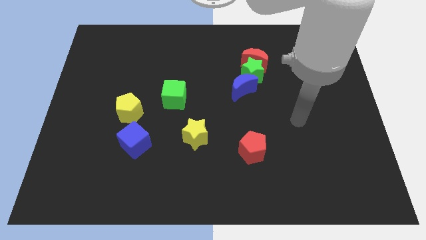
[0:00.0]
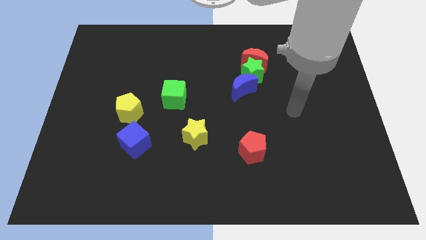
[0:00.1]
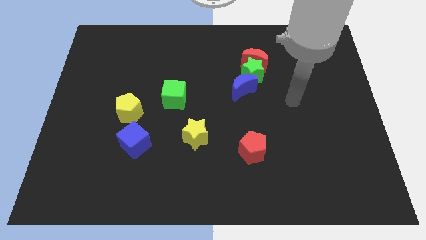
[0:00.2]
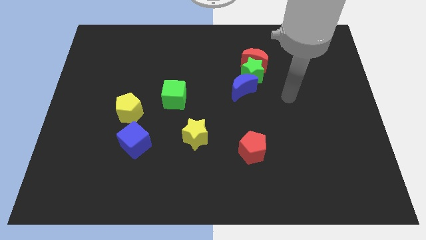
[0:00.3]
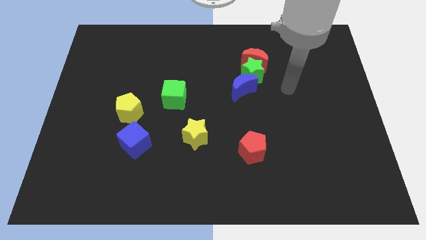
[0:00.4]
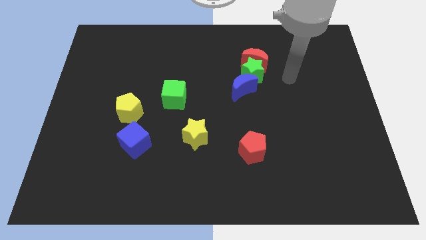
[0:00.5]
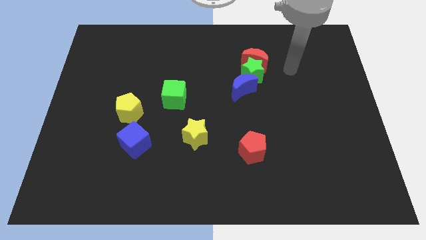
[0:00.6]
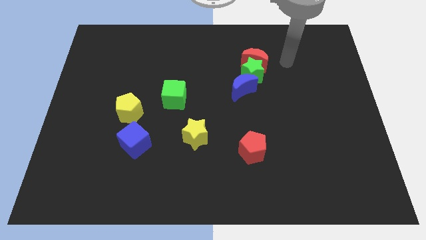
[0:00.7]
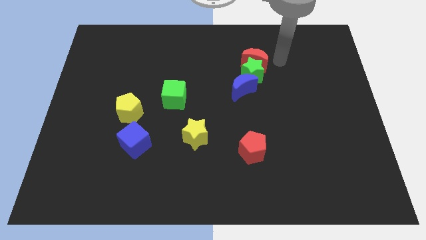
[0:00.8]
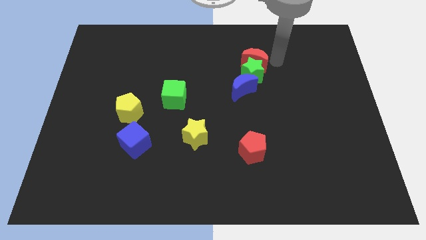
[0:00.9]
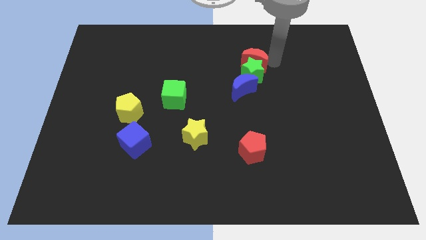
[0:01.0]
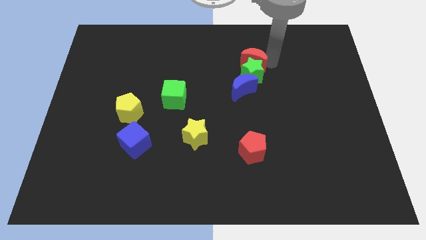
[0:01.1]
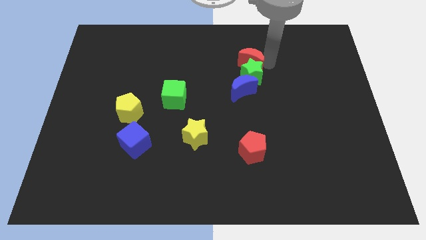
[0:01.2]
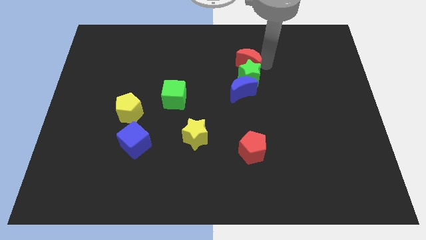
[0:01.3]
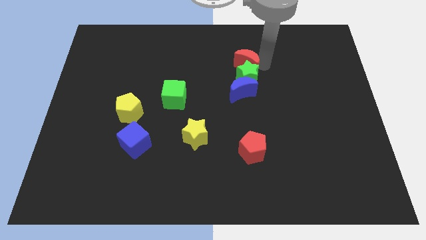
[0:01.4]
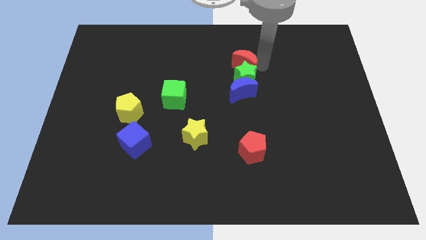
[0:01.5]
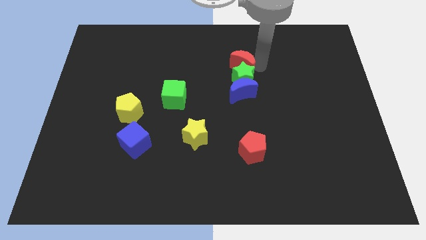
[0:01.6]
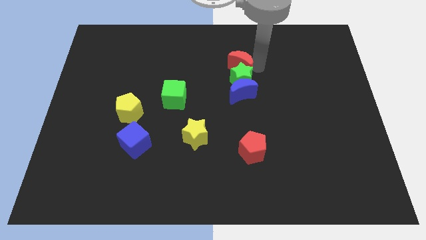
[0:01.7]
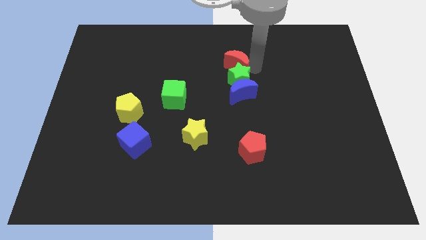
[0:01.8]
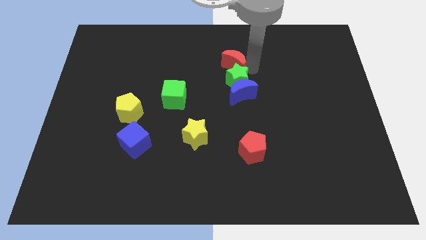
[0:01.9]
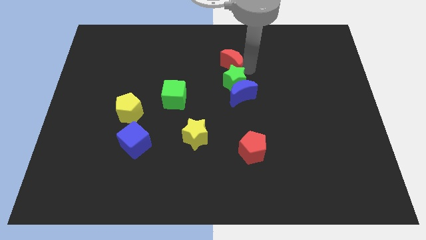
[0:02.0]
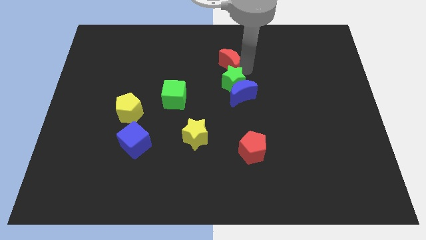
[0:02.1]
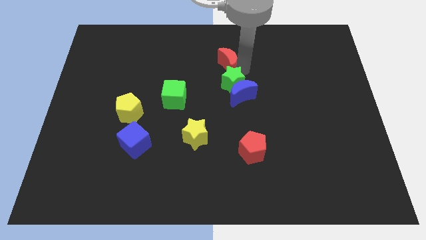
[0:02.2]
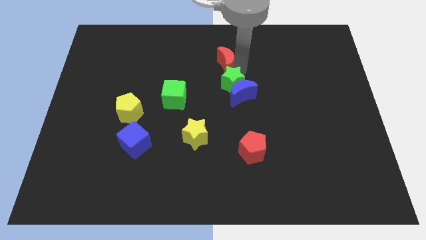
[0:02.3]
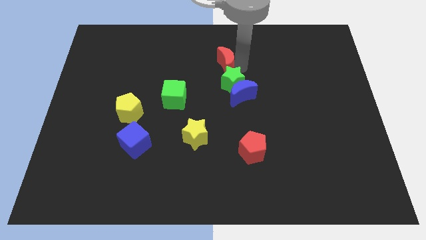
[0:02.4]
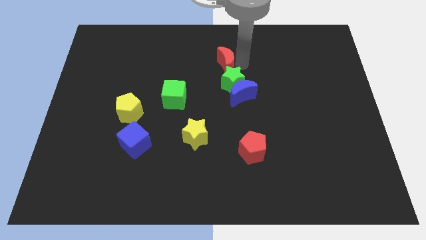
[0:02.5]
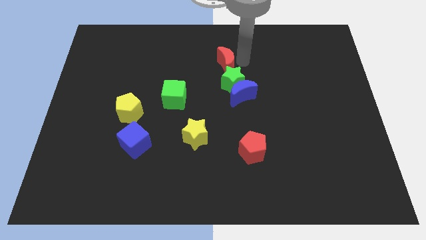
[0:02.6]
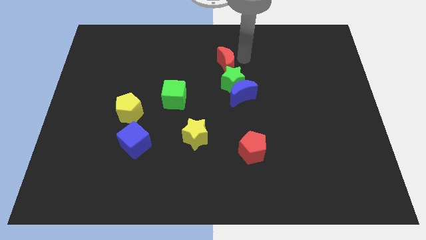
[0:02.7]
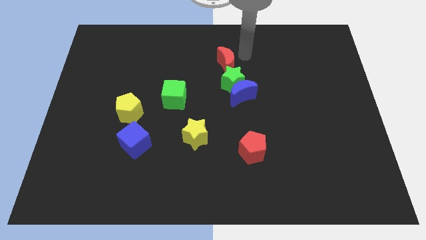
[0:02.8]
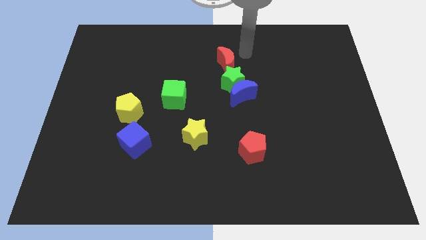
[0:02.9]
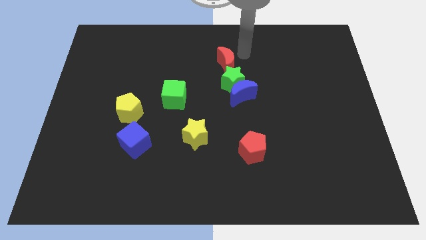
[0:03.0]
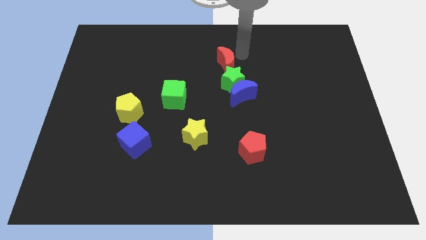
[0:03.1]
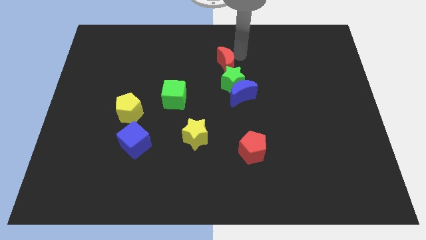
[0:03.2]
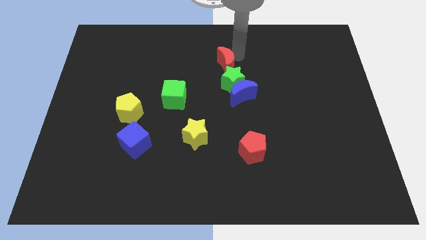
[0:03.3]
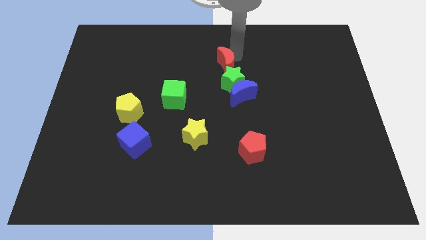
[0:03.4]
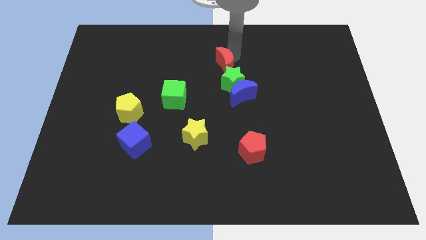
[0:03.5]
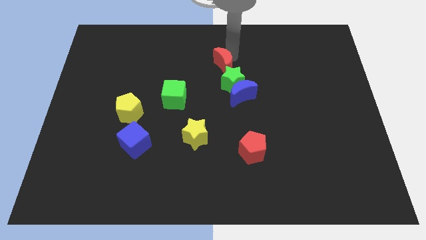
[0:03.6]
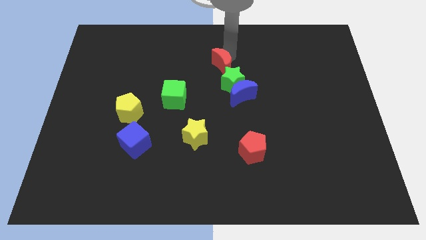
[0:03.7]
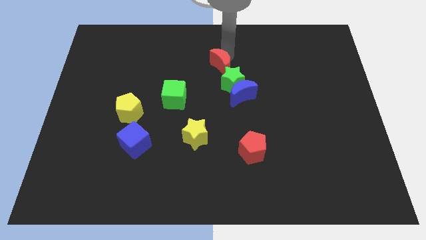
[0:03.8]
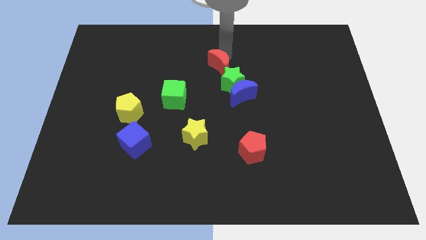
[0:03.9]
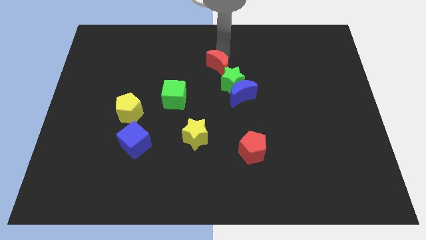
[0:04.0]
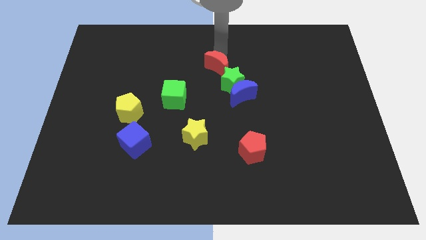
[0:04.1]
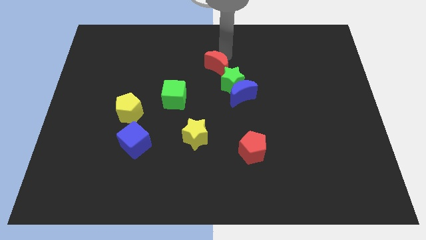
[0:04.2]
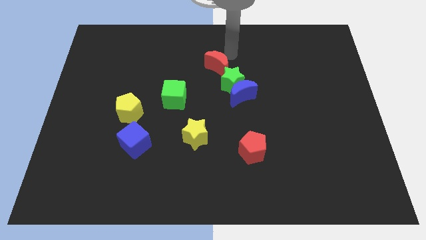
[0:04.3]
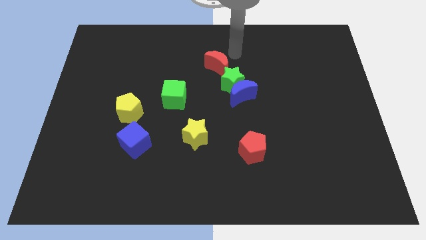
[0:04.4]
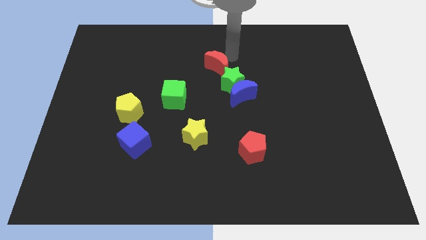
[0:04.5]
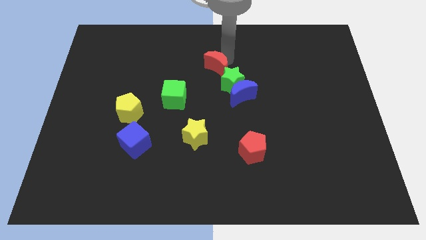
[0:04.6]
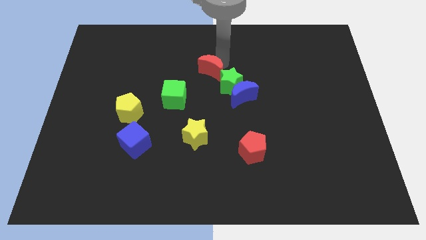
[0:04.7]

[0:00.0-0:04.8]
slide the red moon diagonally up and to the right of the green cube

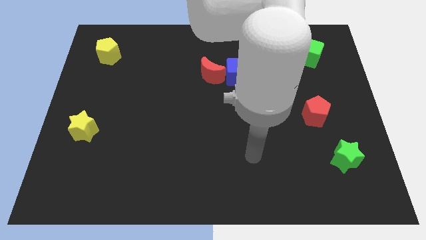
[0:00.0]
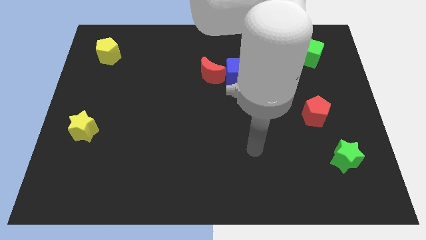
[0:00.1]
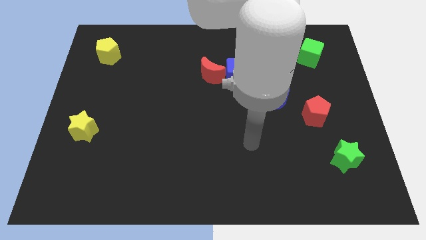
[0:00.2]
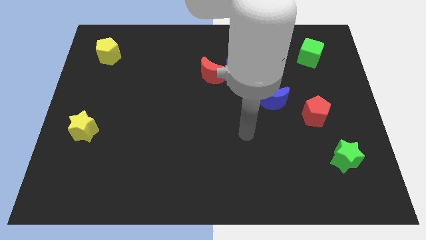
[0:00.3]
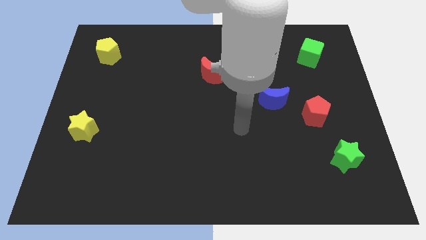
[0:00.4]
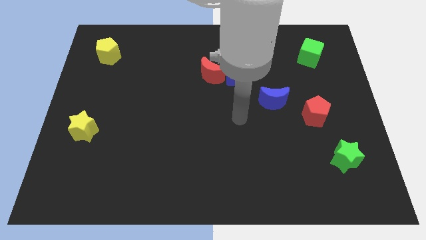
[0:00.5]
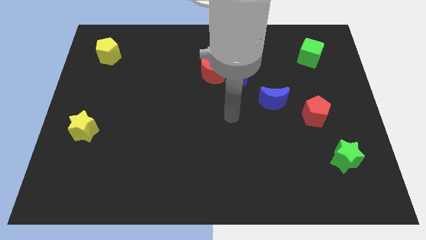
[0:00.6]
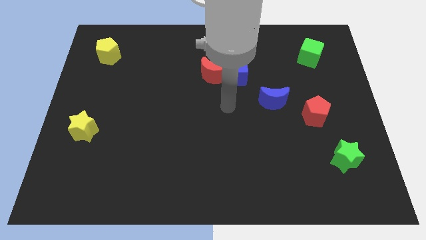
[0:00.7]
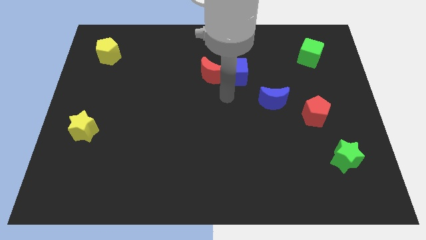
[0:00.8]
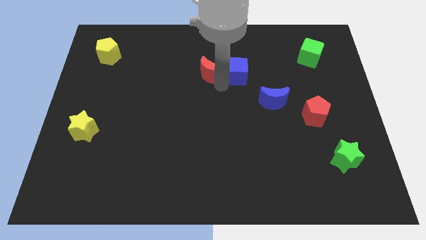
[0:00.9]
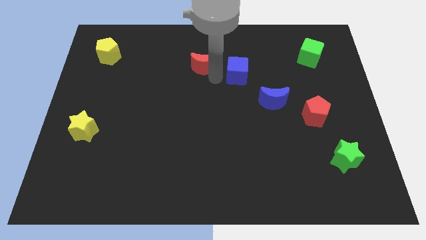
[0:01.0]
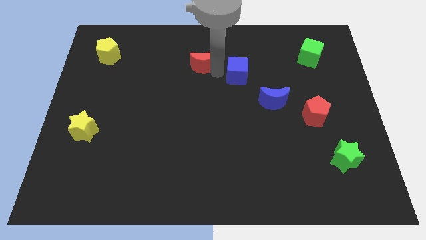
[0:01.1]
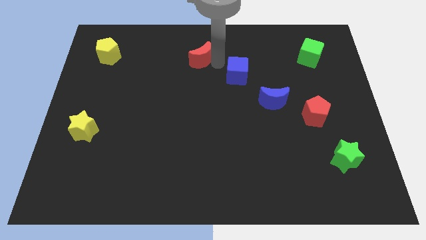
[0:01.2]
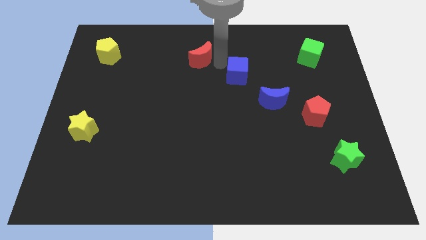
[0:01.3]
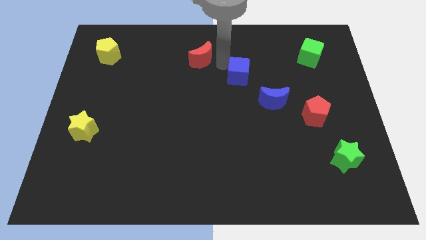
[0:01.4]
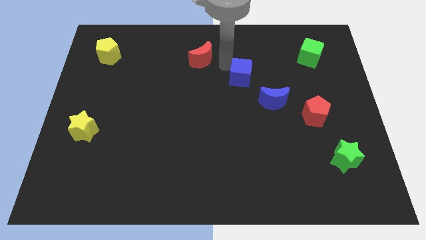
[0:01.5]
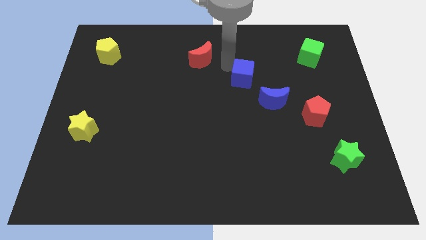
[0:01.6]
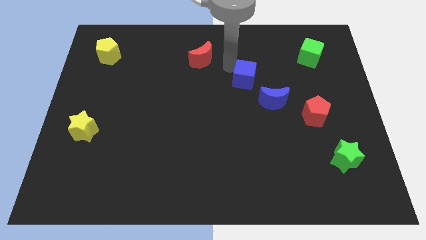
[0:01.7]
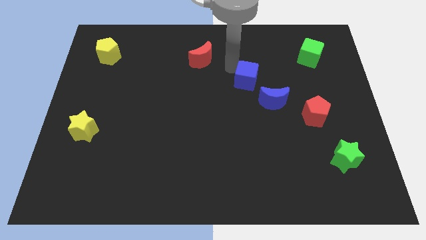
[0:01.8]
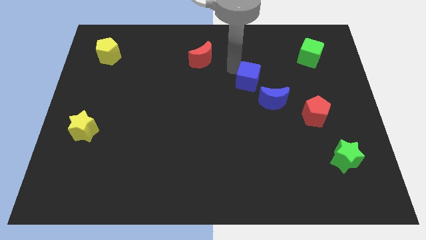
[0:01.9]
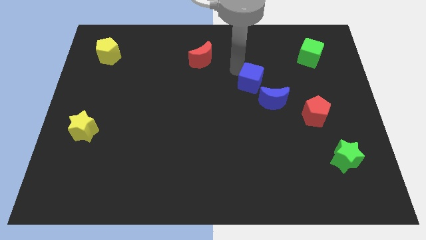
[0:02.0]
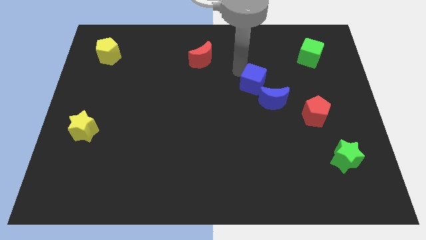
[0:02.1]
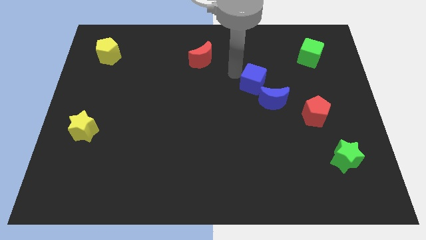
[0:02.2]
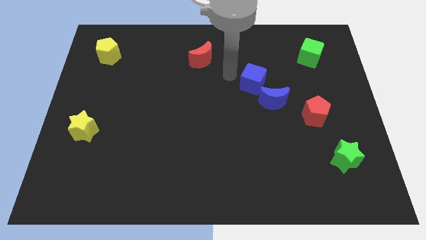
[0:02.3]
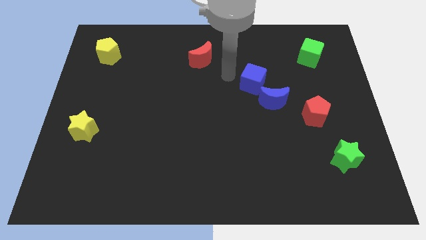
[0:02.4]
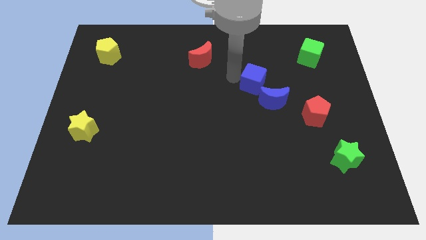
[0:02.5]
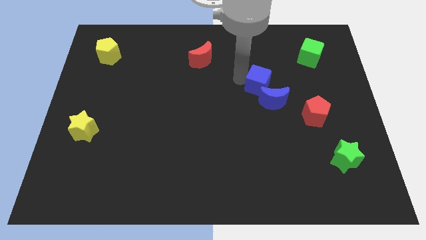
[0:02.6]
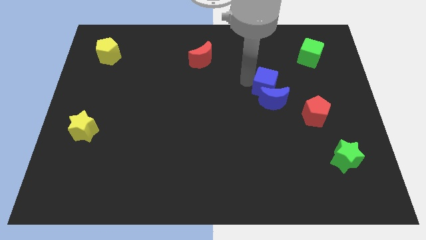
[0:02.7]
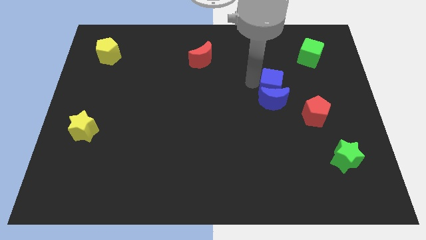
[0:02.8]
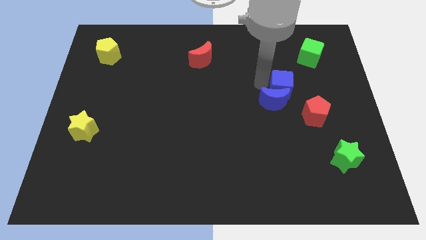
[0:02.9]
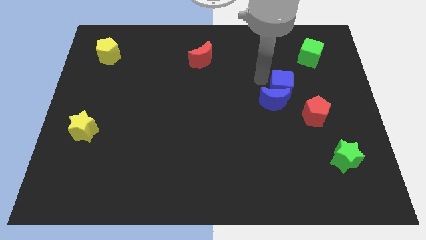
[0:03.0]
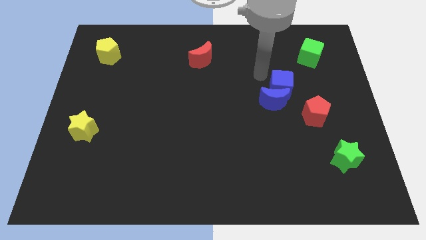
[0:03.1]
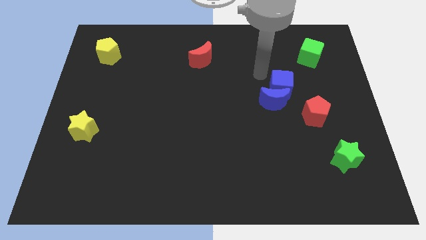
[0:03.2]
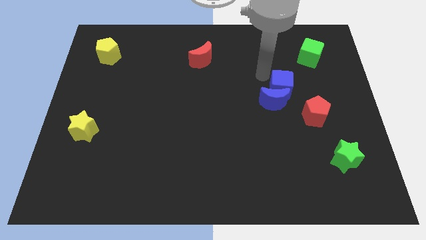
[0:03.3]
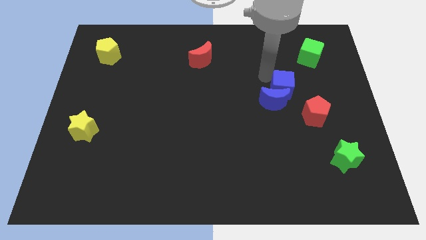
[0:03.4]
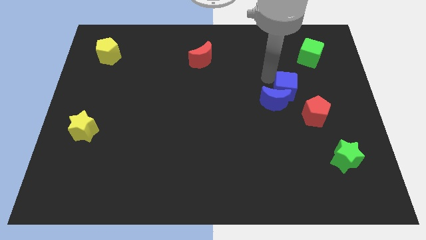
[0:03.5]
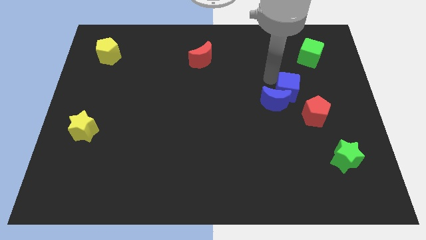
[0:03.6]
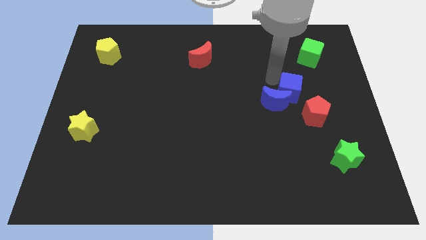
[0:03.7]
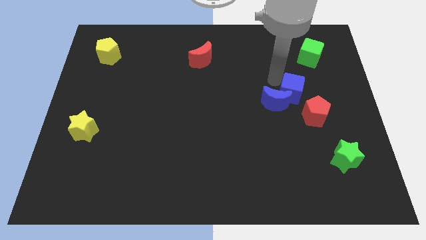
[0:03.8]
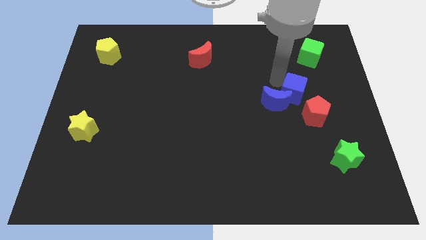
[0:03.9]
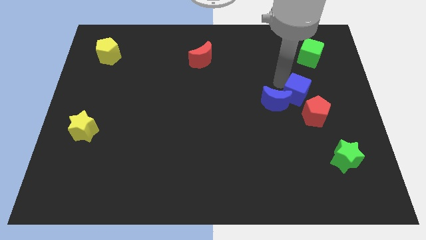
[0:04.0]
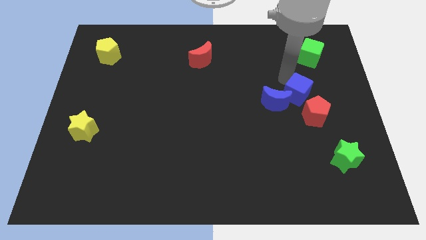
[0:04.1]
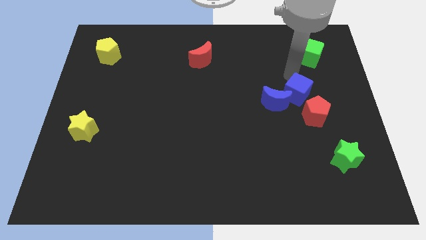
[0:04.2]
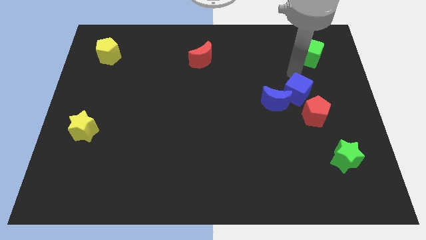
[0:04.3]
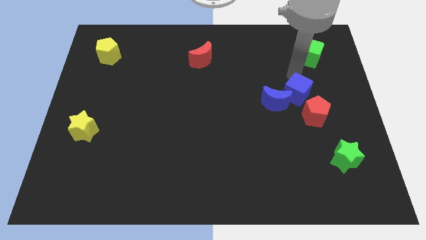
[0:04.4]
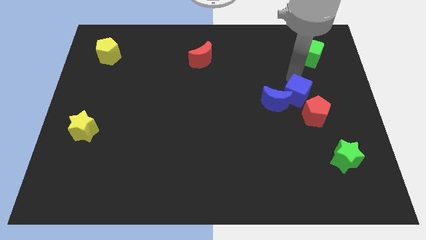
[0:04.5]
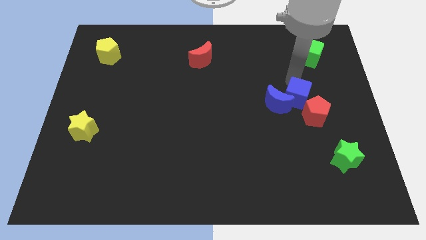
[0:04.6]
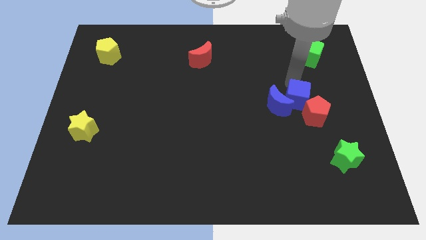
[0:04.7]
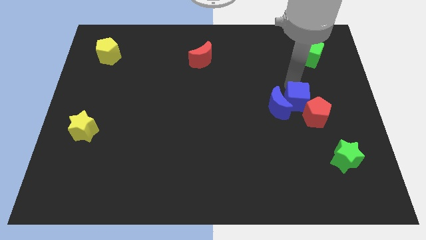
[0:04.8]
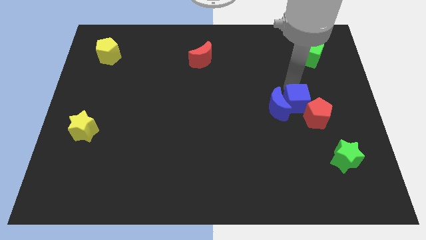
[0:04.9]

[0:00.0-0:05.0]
put the blue cube to the bottom right side of the blue moon
